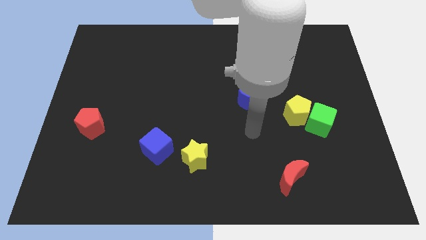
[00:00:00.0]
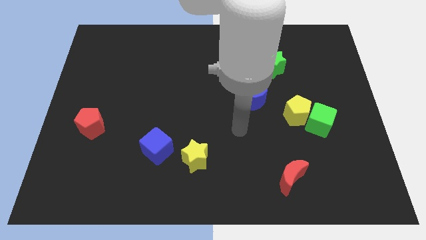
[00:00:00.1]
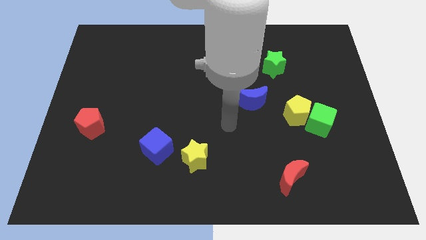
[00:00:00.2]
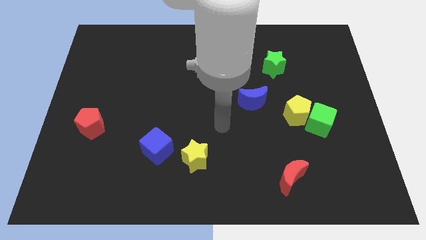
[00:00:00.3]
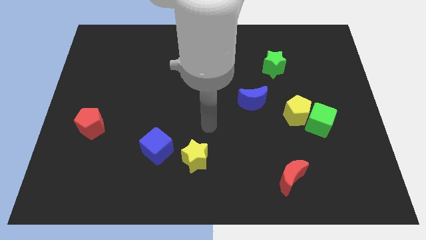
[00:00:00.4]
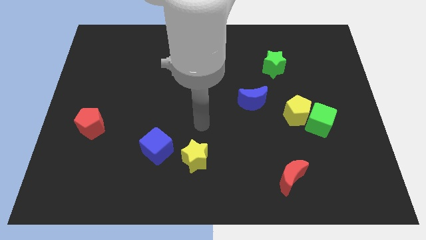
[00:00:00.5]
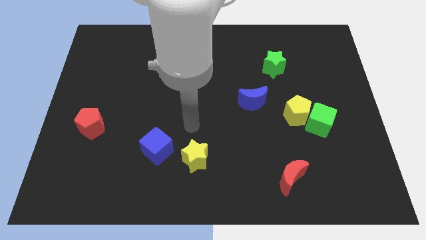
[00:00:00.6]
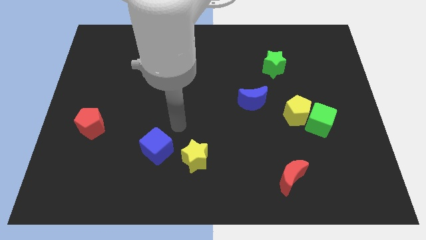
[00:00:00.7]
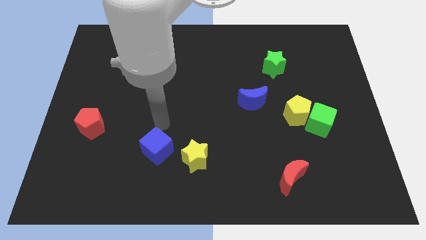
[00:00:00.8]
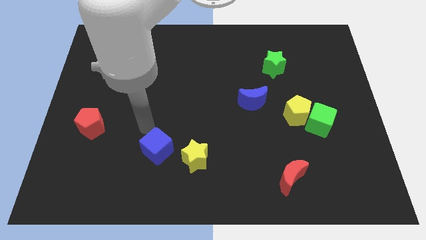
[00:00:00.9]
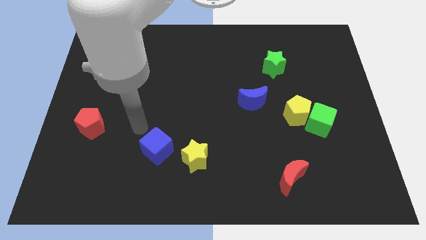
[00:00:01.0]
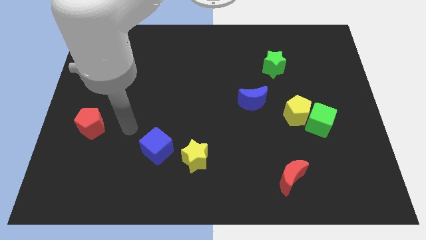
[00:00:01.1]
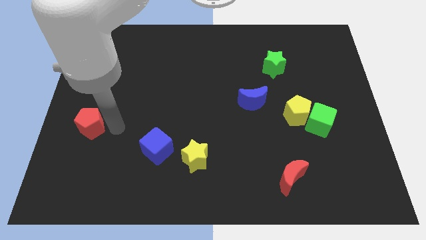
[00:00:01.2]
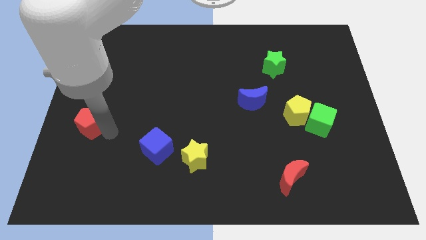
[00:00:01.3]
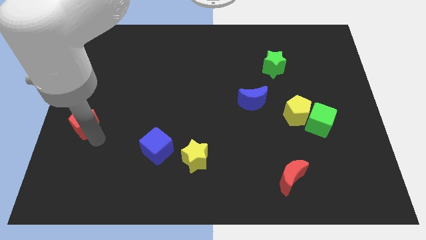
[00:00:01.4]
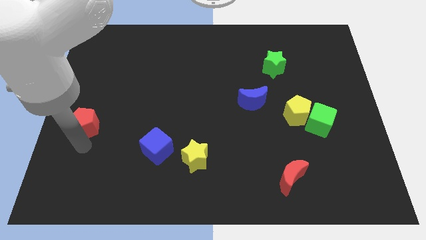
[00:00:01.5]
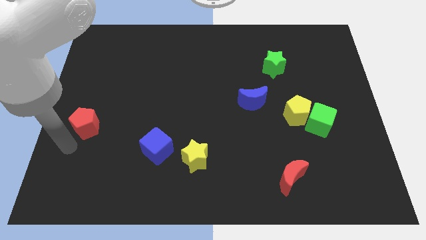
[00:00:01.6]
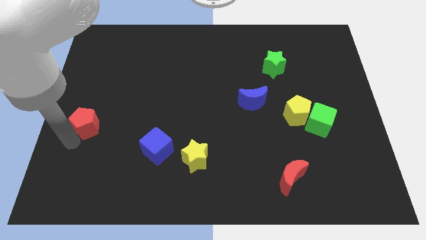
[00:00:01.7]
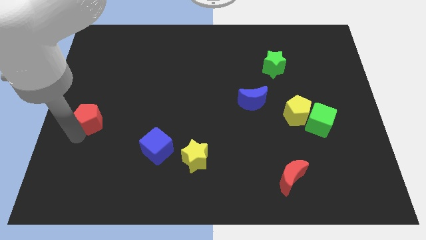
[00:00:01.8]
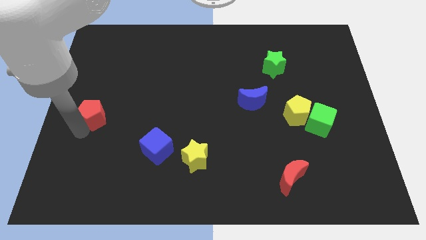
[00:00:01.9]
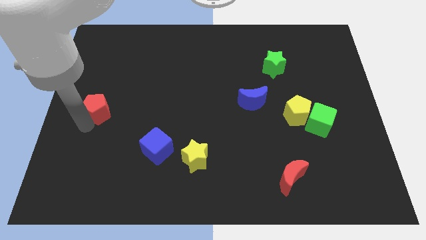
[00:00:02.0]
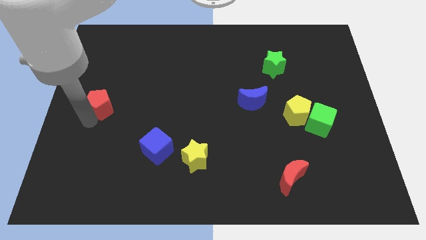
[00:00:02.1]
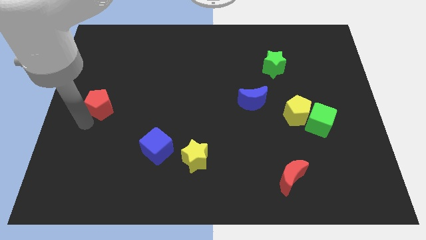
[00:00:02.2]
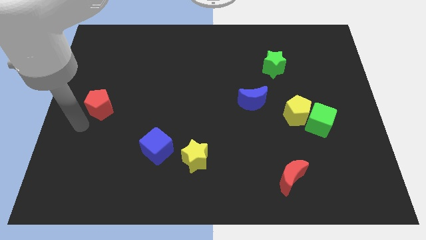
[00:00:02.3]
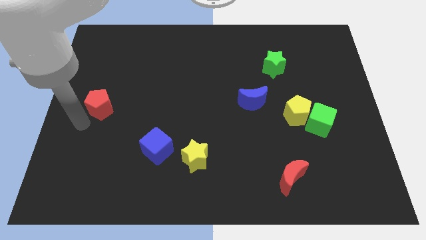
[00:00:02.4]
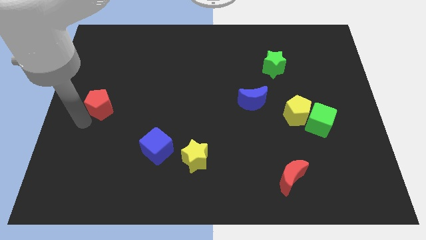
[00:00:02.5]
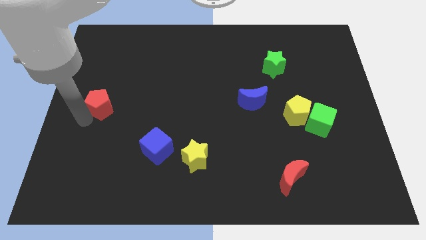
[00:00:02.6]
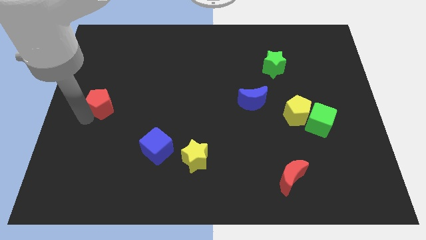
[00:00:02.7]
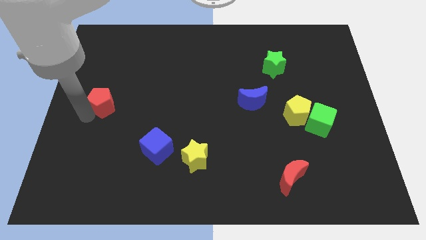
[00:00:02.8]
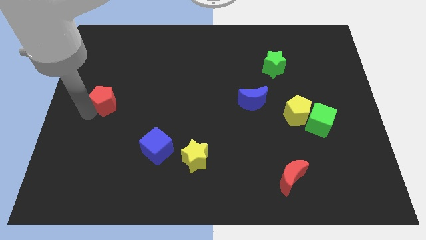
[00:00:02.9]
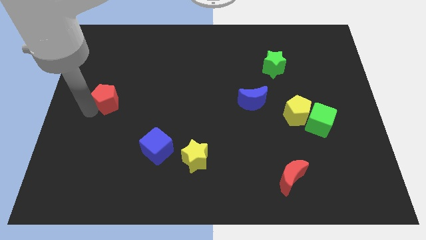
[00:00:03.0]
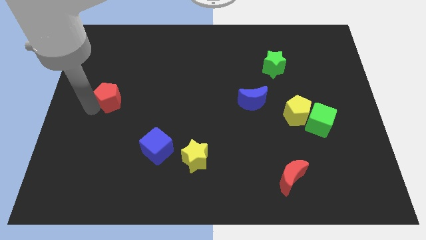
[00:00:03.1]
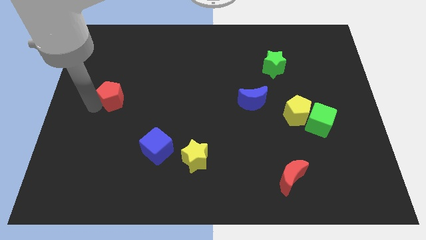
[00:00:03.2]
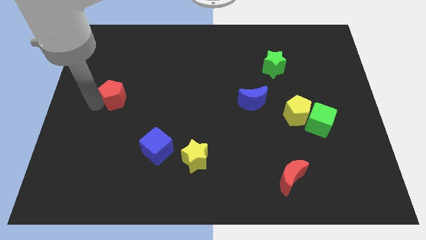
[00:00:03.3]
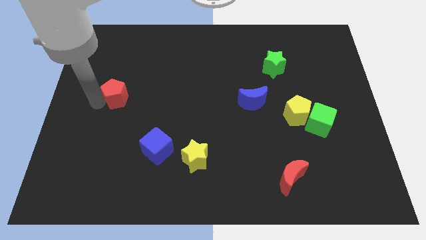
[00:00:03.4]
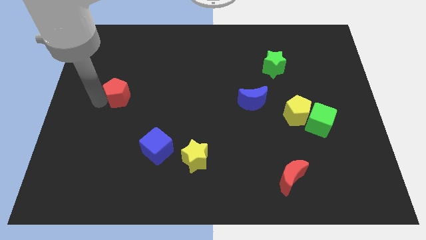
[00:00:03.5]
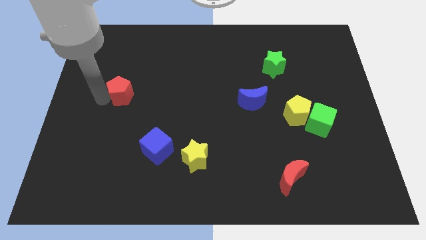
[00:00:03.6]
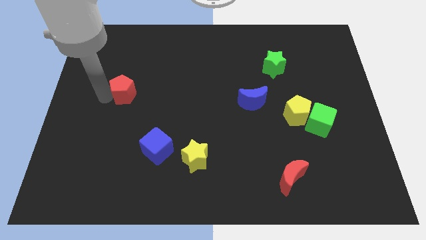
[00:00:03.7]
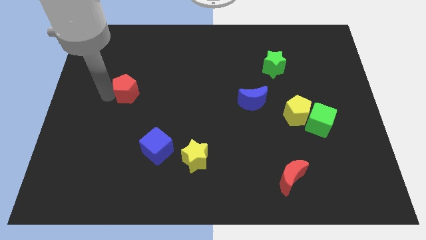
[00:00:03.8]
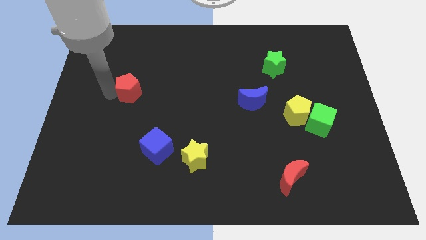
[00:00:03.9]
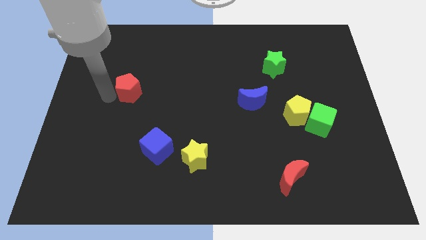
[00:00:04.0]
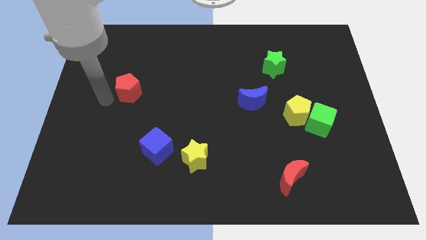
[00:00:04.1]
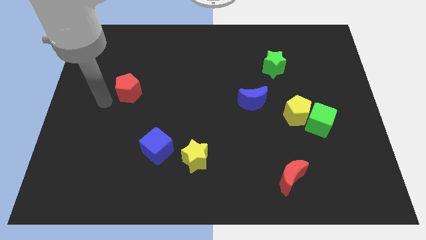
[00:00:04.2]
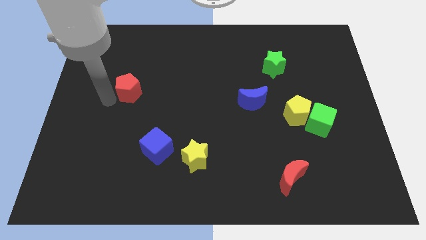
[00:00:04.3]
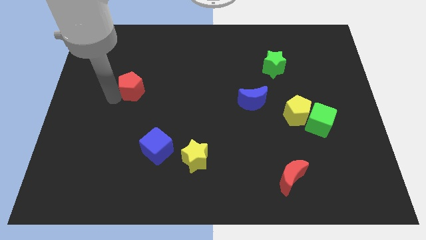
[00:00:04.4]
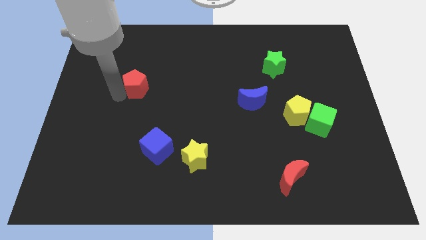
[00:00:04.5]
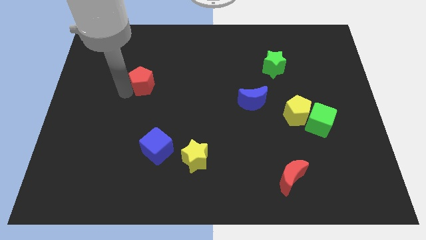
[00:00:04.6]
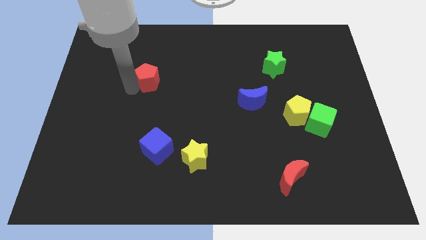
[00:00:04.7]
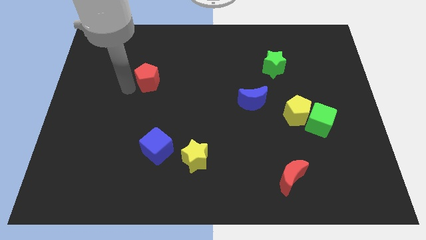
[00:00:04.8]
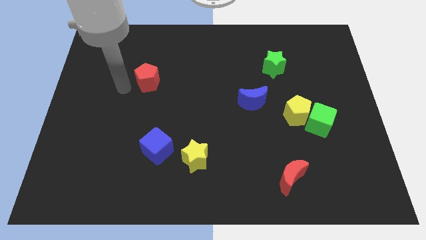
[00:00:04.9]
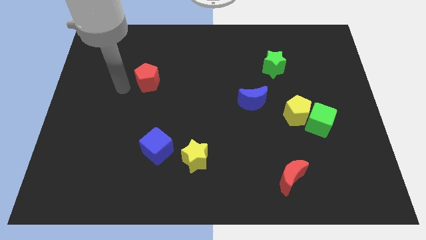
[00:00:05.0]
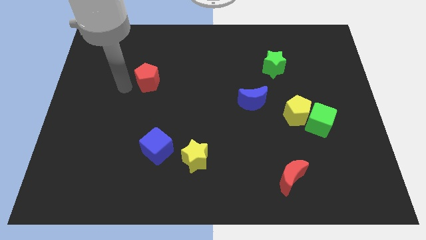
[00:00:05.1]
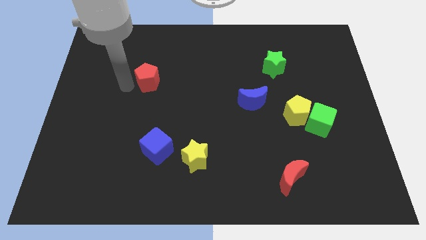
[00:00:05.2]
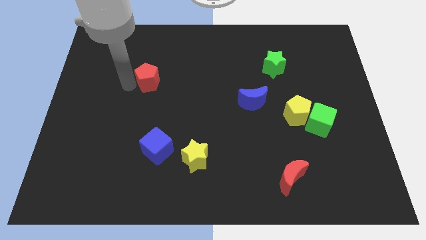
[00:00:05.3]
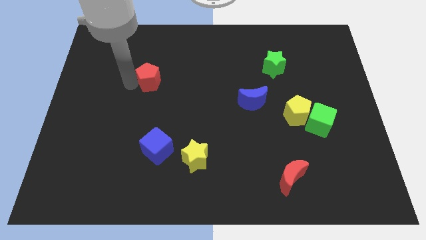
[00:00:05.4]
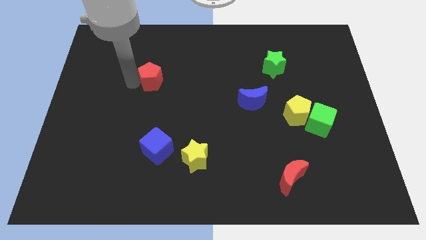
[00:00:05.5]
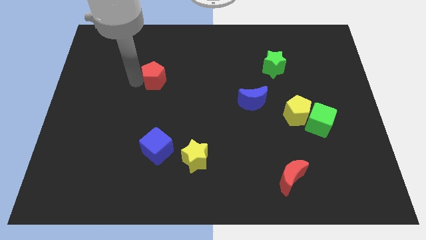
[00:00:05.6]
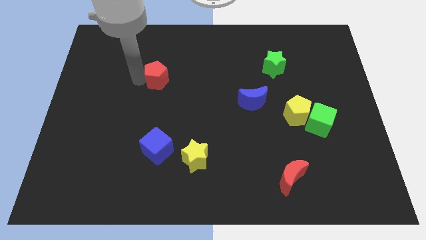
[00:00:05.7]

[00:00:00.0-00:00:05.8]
push the red pentagon up and right diagonally

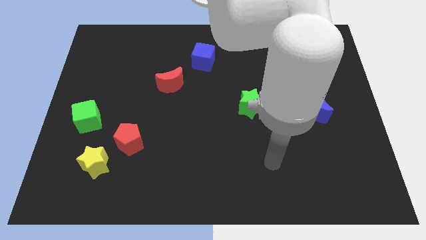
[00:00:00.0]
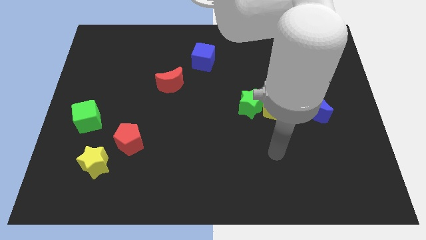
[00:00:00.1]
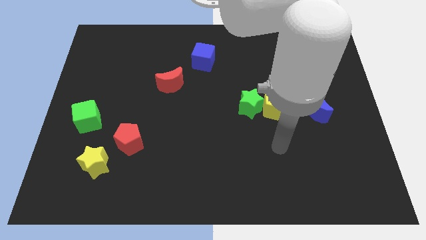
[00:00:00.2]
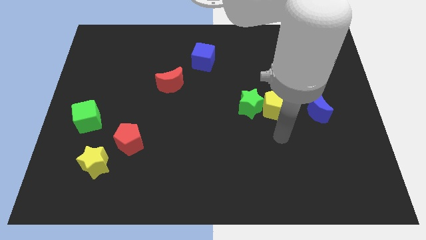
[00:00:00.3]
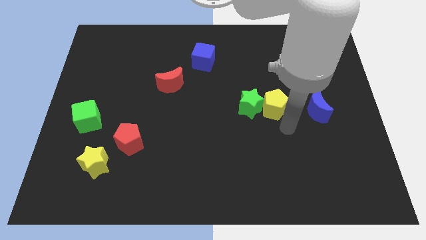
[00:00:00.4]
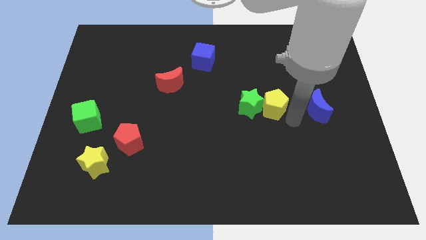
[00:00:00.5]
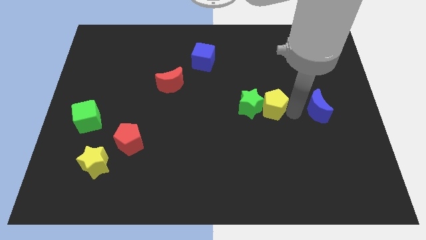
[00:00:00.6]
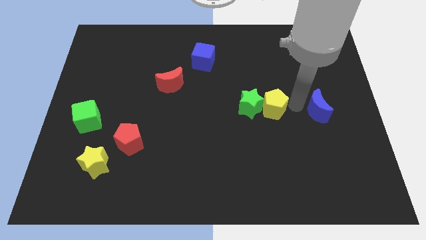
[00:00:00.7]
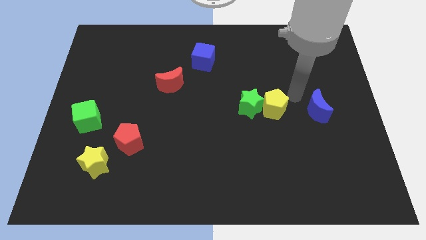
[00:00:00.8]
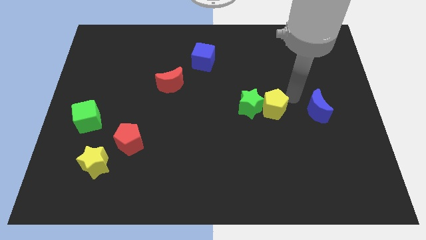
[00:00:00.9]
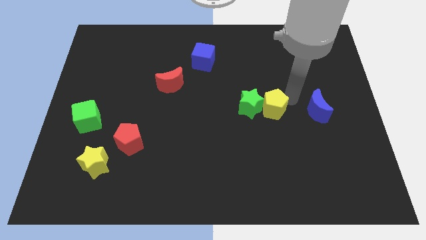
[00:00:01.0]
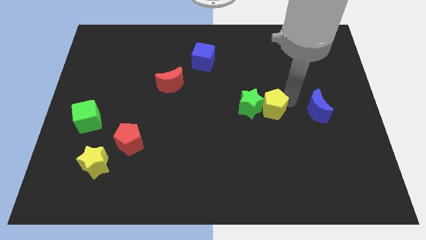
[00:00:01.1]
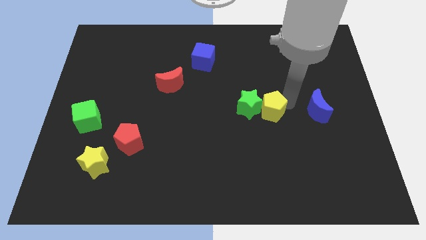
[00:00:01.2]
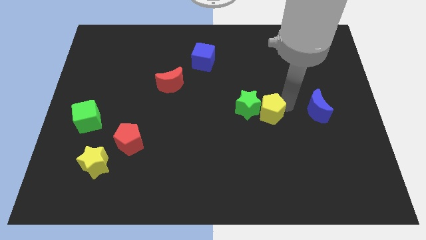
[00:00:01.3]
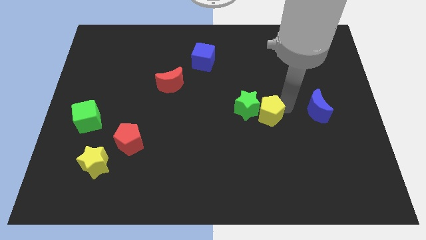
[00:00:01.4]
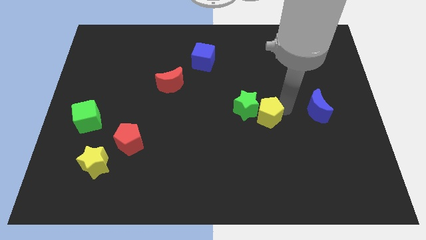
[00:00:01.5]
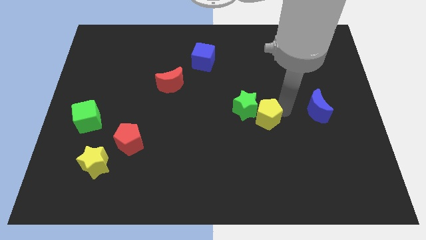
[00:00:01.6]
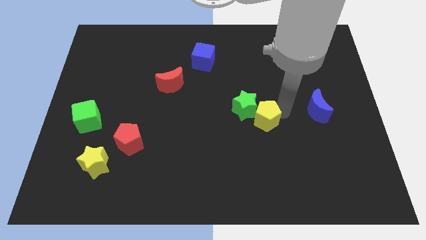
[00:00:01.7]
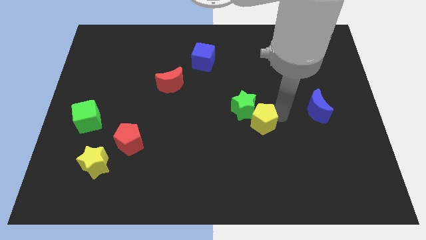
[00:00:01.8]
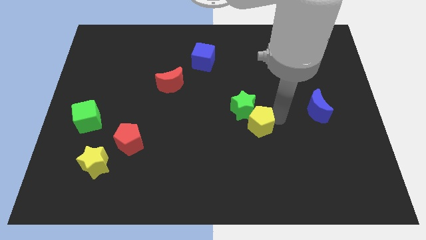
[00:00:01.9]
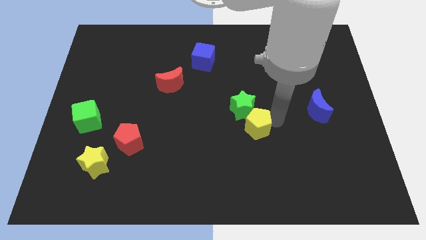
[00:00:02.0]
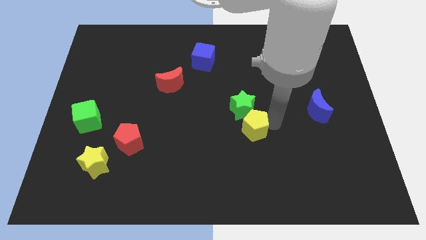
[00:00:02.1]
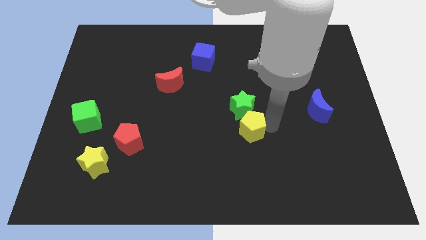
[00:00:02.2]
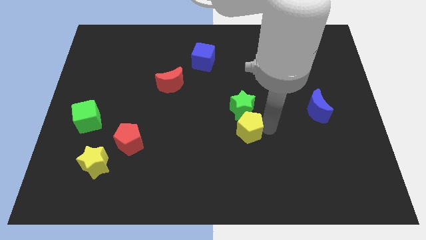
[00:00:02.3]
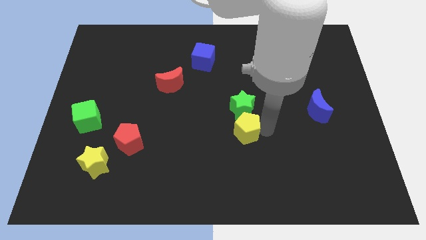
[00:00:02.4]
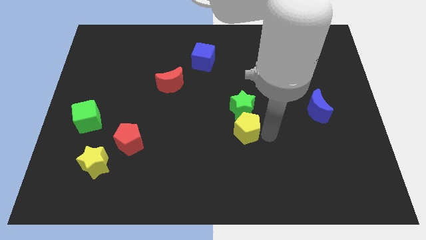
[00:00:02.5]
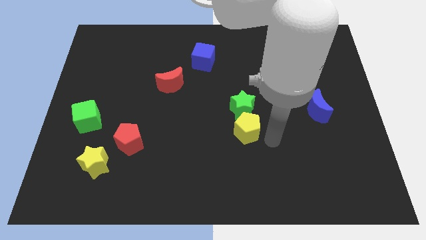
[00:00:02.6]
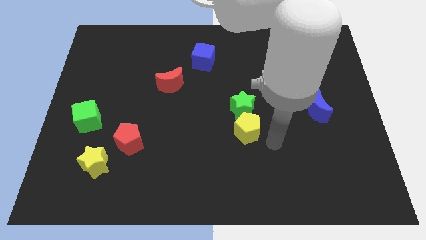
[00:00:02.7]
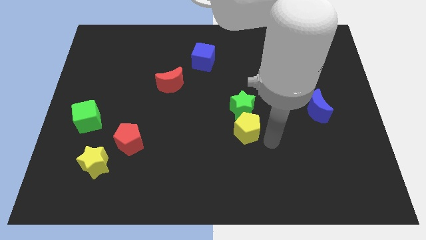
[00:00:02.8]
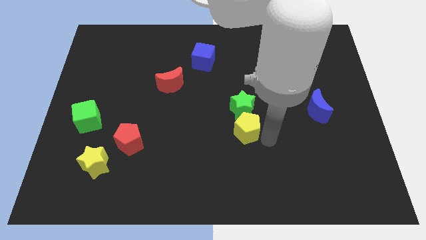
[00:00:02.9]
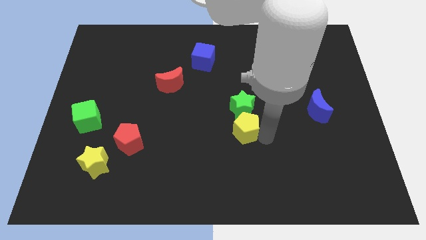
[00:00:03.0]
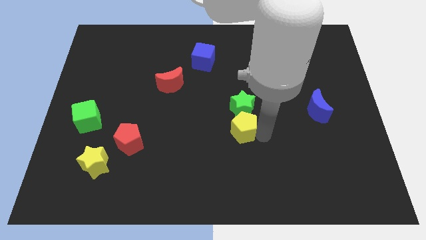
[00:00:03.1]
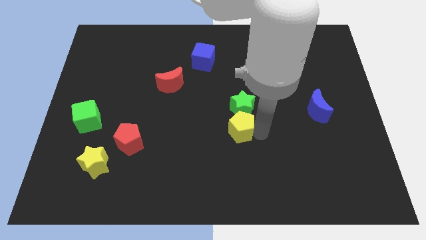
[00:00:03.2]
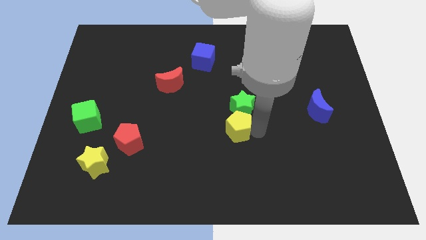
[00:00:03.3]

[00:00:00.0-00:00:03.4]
move the yellow pentagon a little bit to the left
